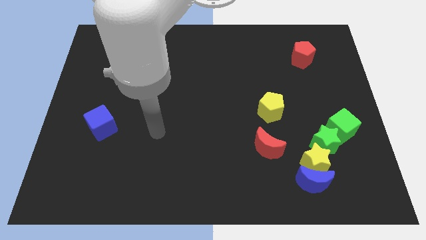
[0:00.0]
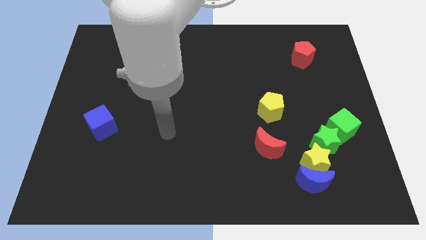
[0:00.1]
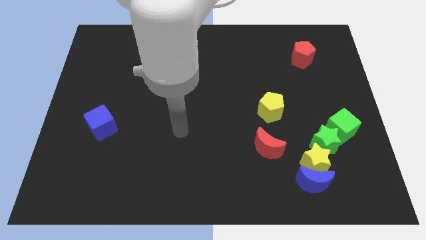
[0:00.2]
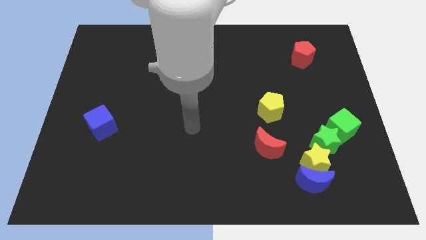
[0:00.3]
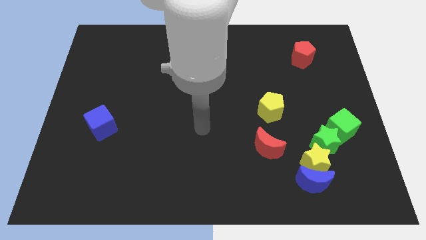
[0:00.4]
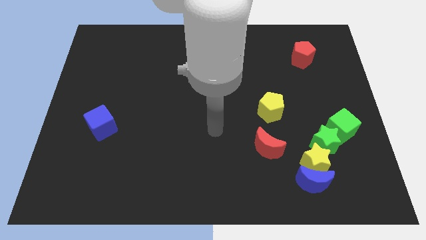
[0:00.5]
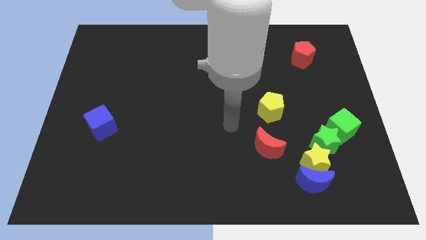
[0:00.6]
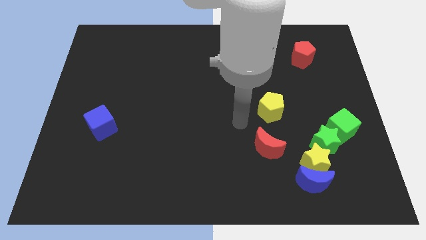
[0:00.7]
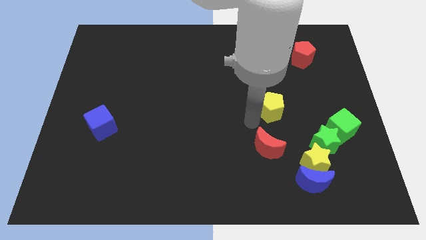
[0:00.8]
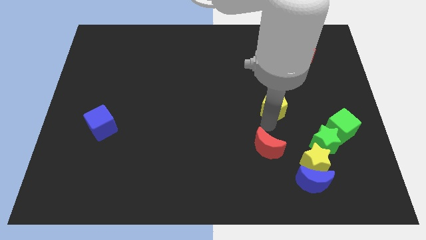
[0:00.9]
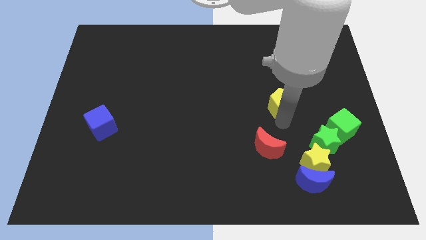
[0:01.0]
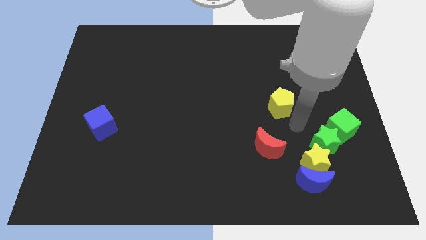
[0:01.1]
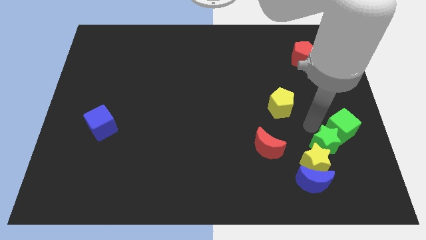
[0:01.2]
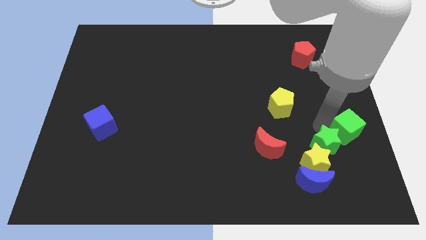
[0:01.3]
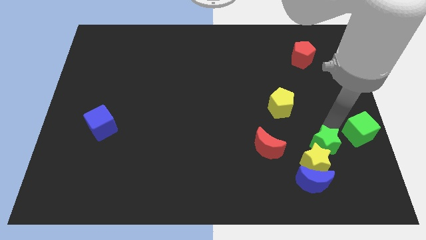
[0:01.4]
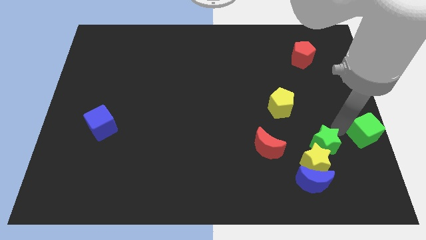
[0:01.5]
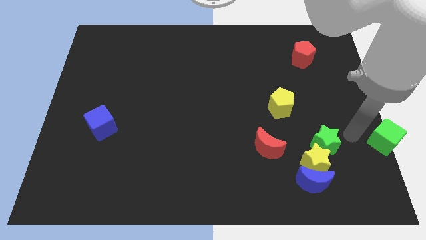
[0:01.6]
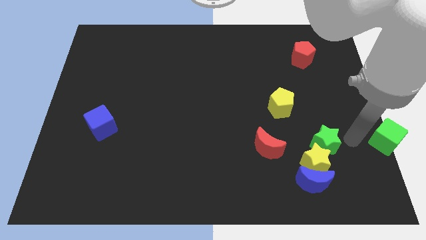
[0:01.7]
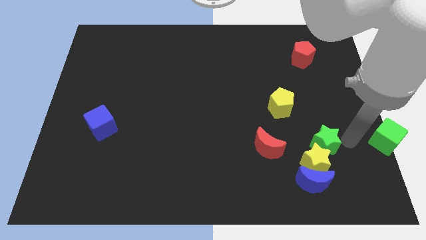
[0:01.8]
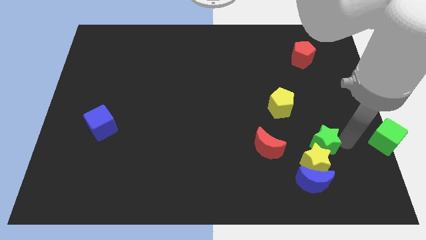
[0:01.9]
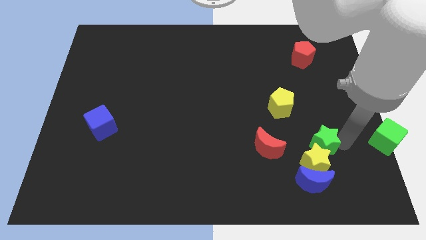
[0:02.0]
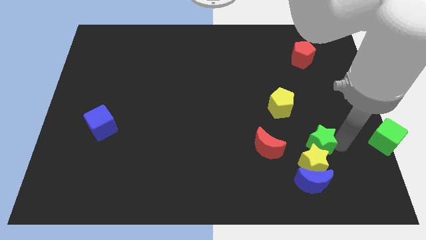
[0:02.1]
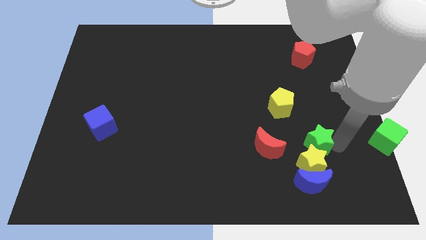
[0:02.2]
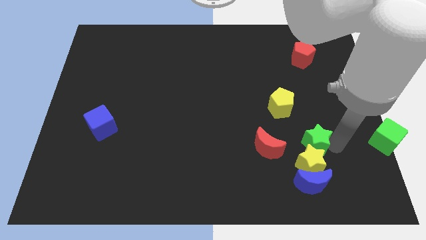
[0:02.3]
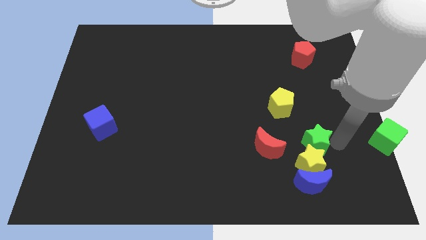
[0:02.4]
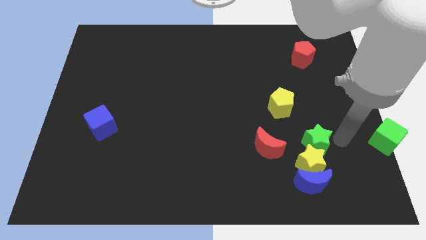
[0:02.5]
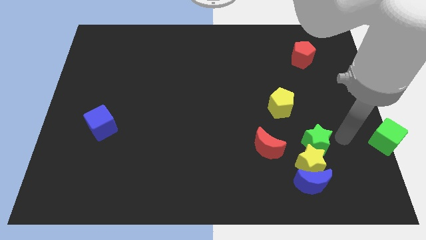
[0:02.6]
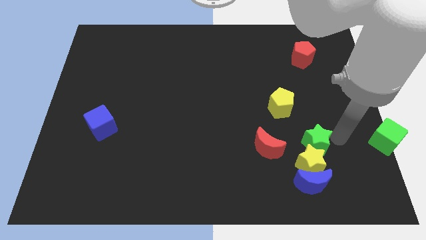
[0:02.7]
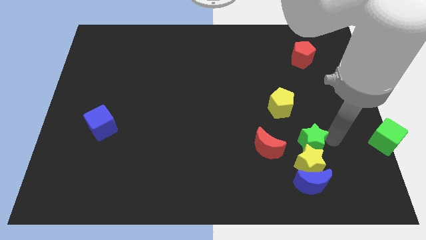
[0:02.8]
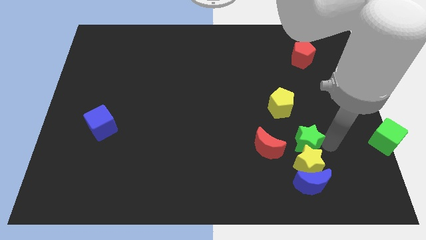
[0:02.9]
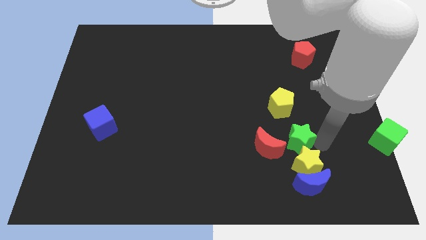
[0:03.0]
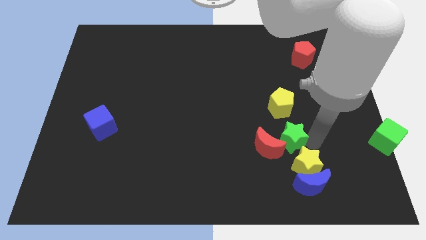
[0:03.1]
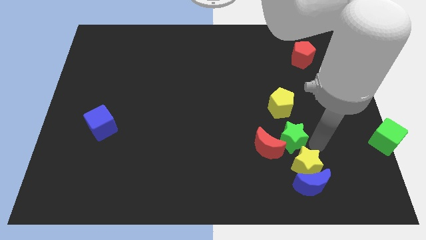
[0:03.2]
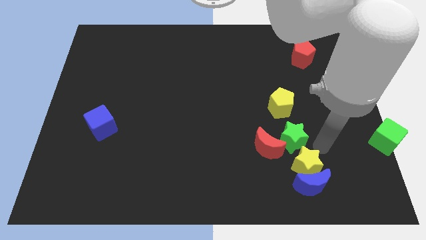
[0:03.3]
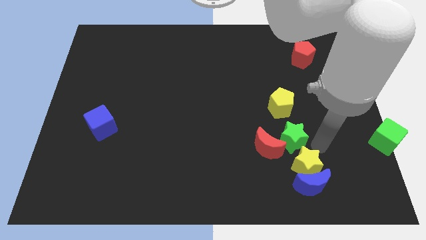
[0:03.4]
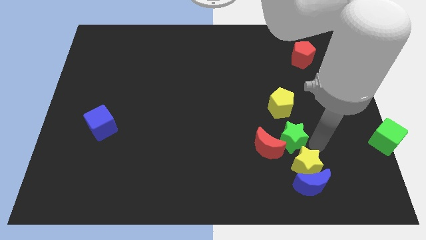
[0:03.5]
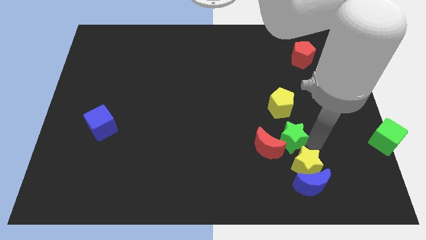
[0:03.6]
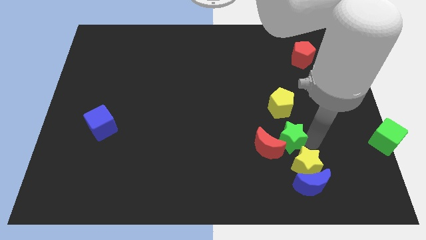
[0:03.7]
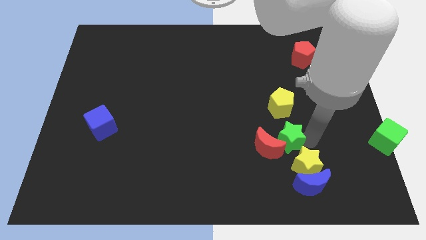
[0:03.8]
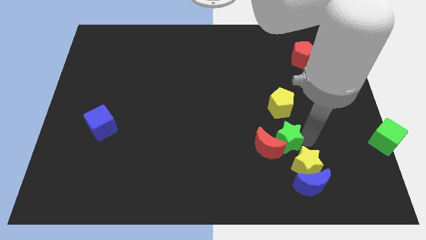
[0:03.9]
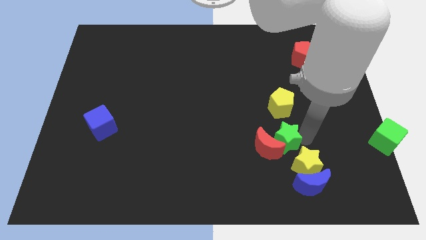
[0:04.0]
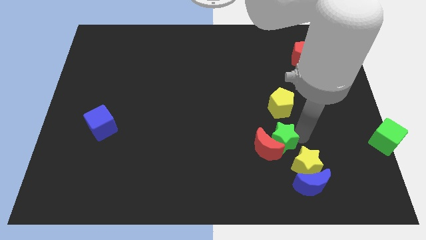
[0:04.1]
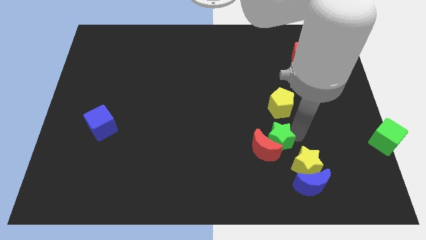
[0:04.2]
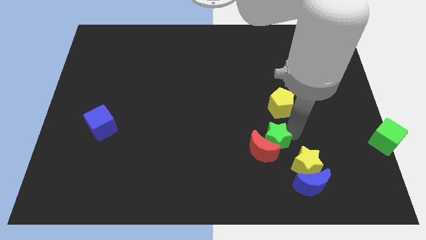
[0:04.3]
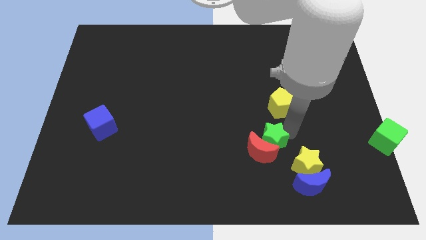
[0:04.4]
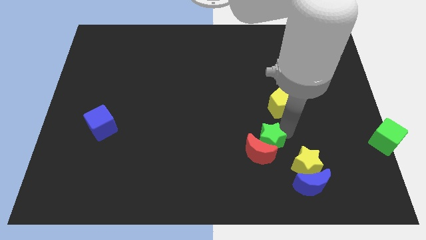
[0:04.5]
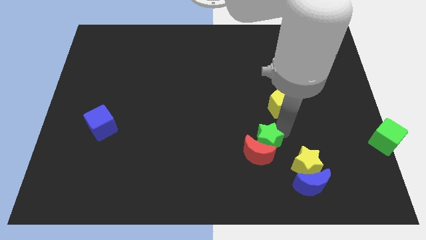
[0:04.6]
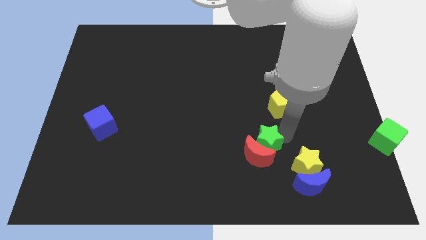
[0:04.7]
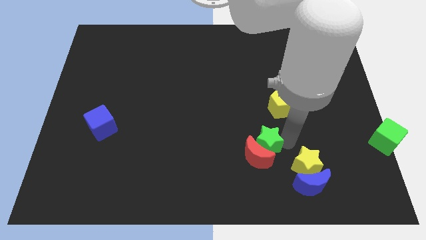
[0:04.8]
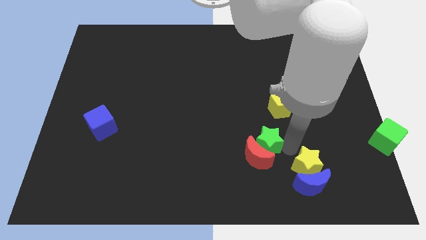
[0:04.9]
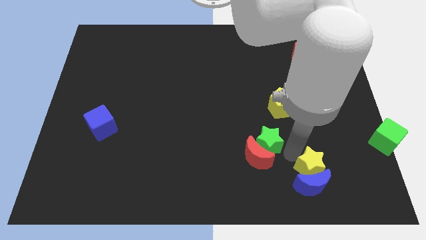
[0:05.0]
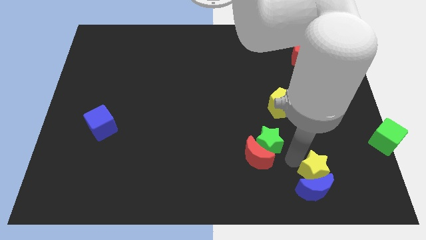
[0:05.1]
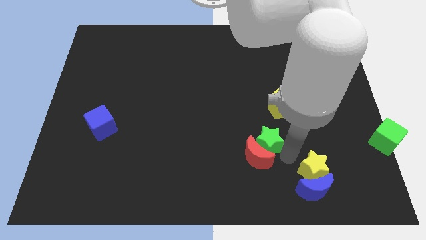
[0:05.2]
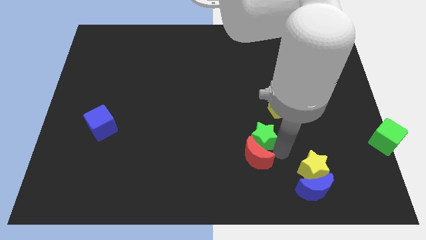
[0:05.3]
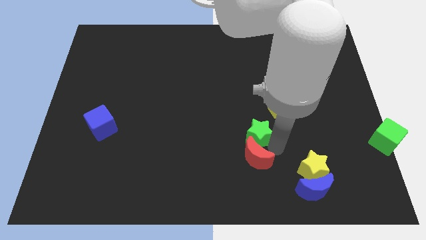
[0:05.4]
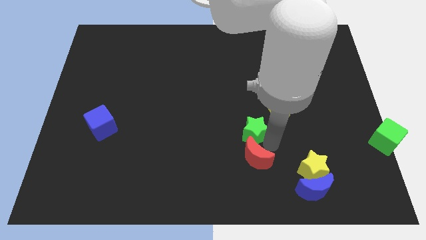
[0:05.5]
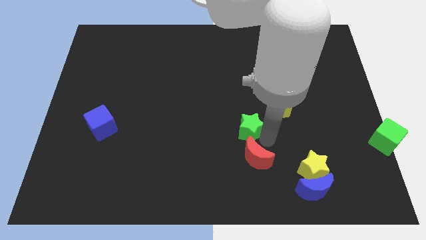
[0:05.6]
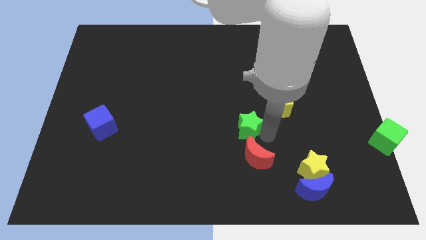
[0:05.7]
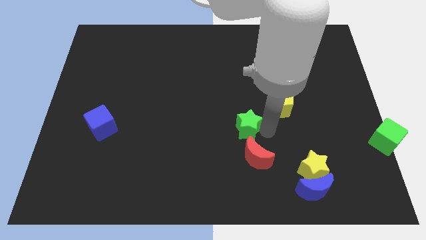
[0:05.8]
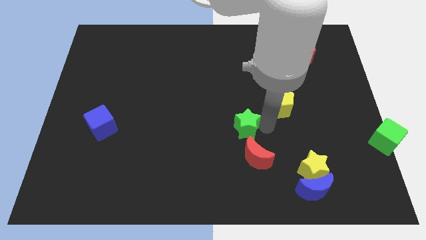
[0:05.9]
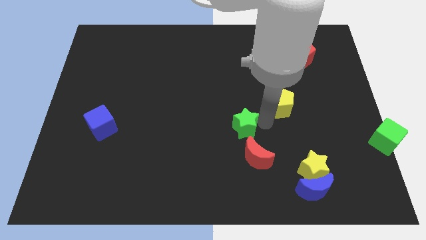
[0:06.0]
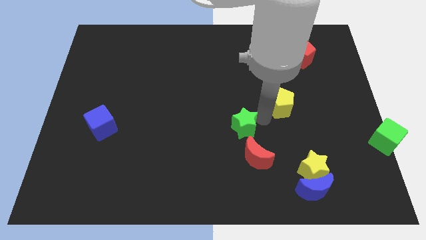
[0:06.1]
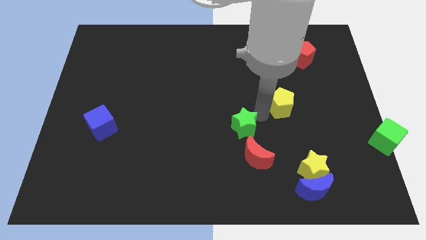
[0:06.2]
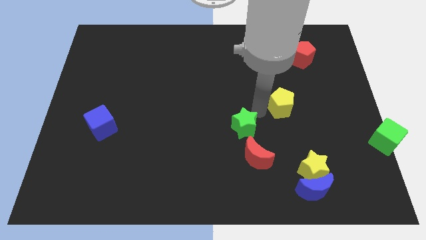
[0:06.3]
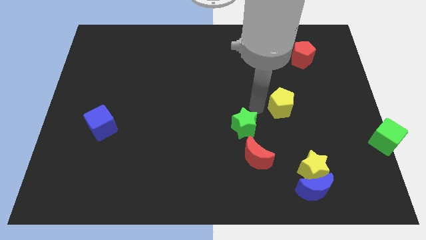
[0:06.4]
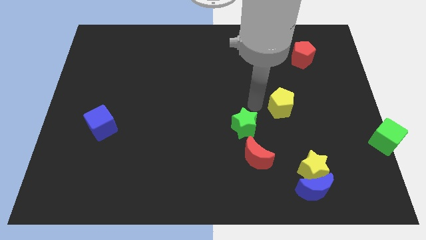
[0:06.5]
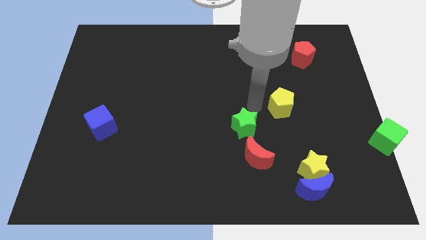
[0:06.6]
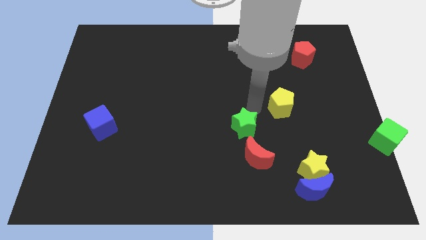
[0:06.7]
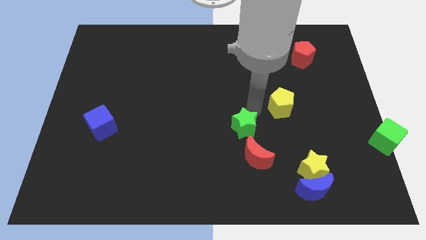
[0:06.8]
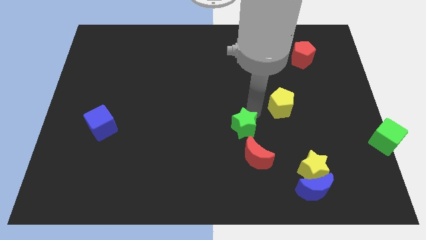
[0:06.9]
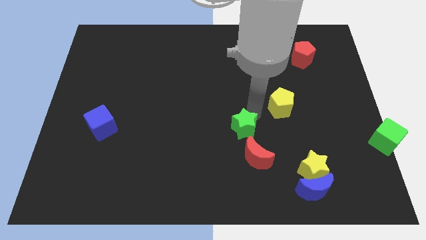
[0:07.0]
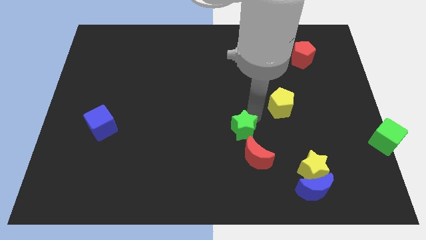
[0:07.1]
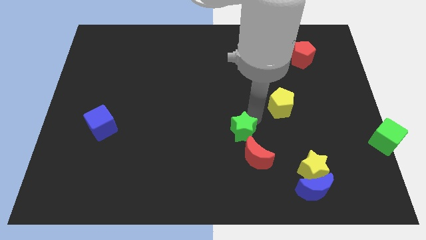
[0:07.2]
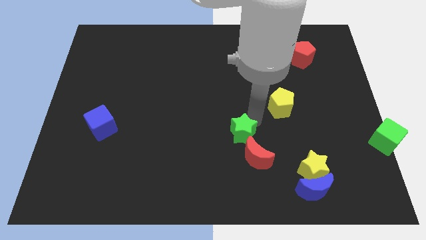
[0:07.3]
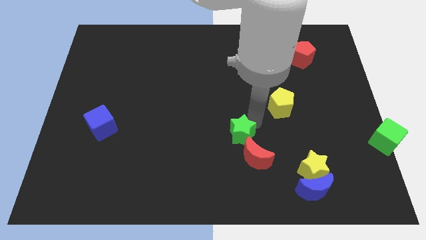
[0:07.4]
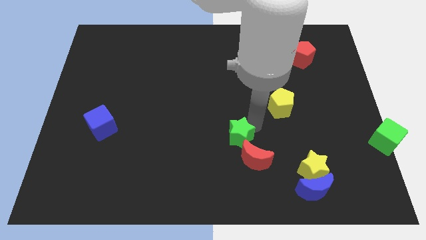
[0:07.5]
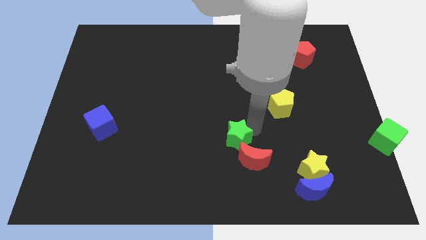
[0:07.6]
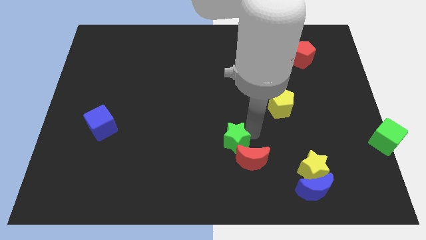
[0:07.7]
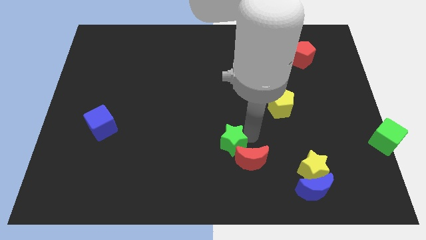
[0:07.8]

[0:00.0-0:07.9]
push the green star left of the red moon
